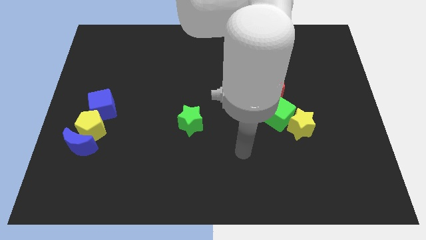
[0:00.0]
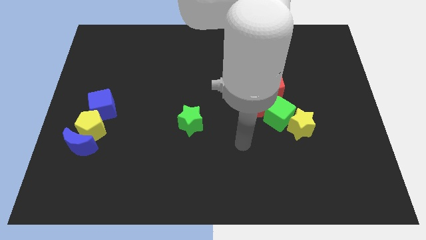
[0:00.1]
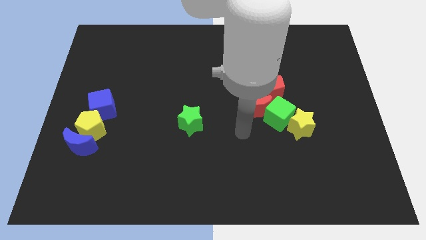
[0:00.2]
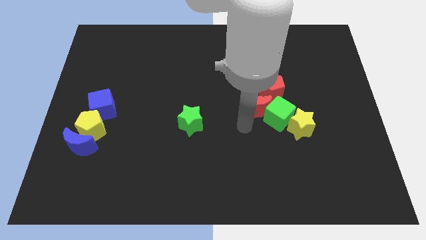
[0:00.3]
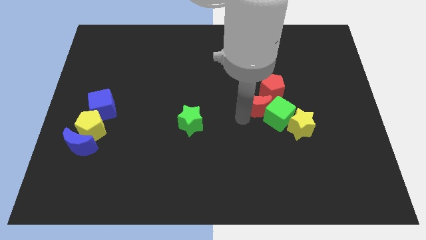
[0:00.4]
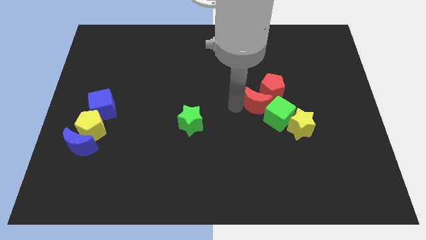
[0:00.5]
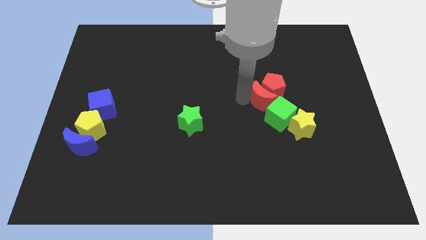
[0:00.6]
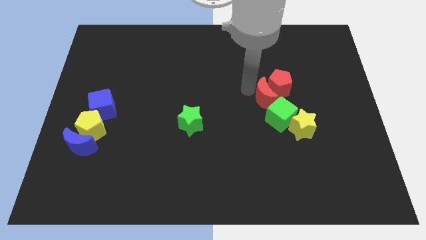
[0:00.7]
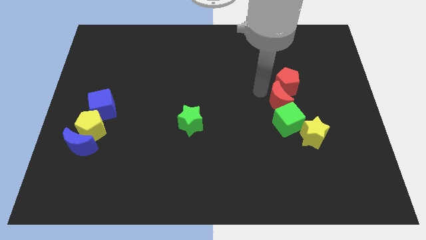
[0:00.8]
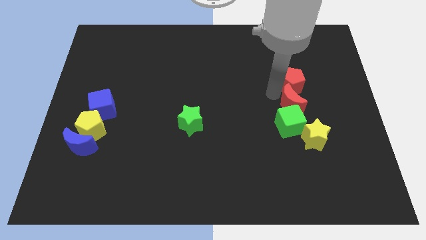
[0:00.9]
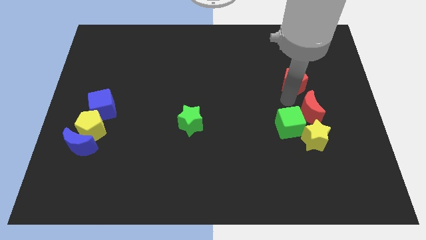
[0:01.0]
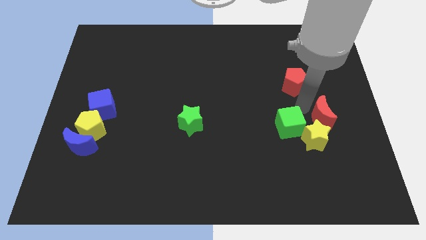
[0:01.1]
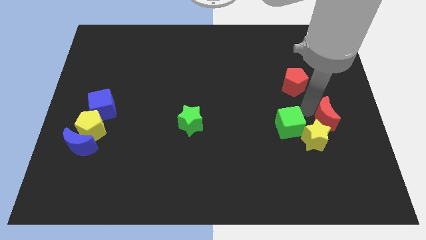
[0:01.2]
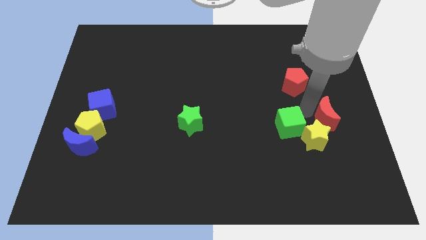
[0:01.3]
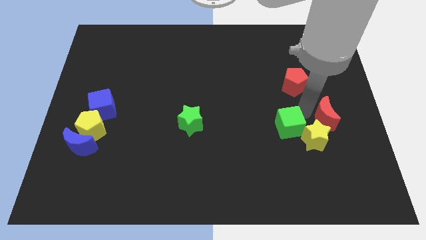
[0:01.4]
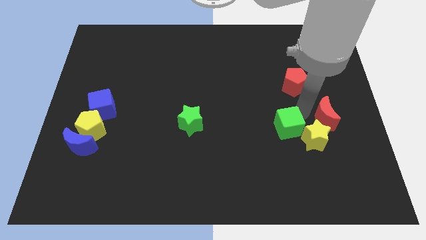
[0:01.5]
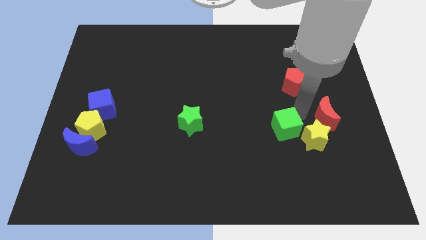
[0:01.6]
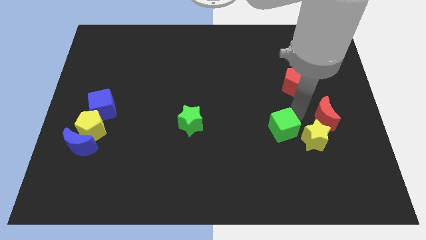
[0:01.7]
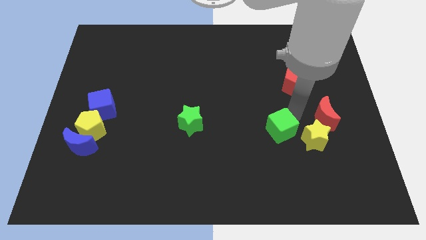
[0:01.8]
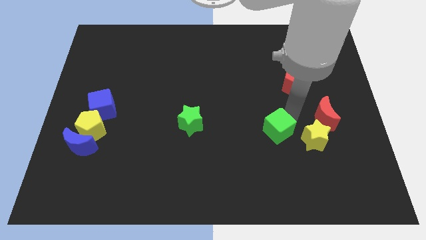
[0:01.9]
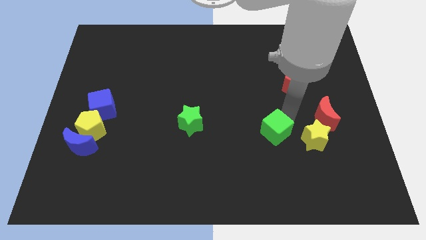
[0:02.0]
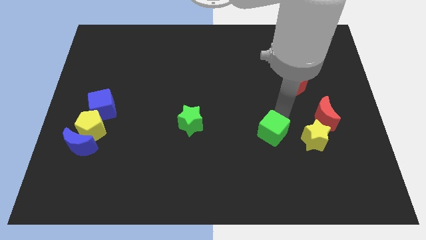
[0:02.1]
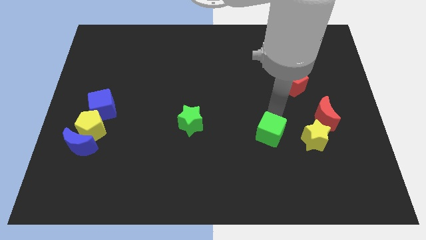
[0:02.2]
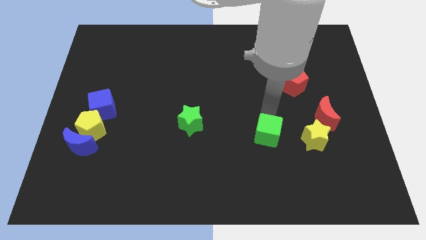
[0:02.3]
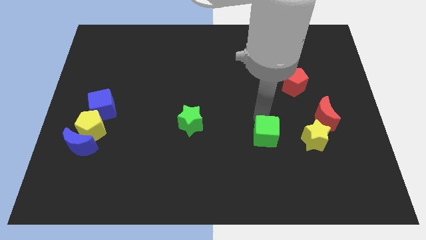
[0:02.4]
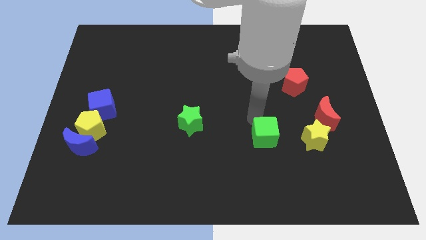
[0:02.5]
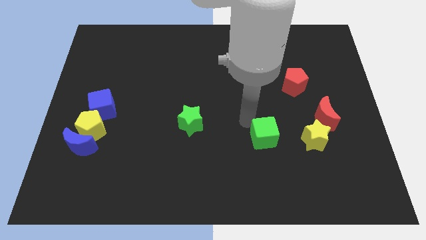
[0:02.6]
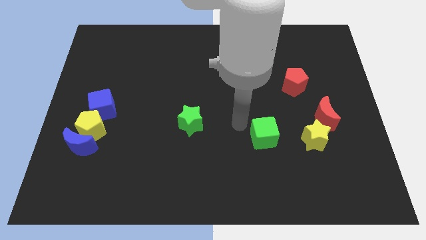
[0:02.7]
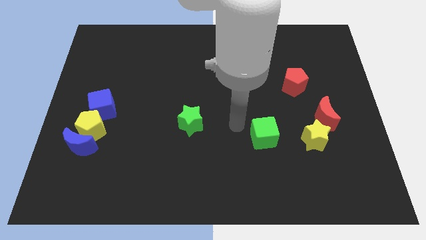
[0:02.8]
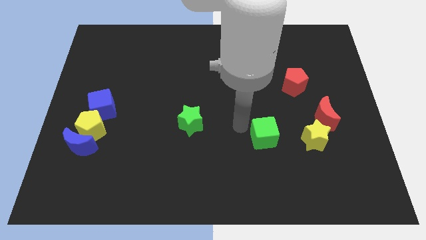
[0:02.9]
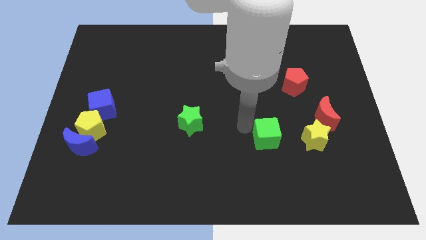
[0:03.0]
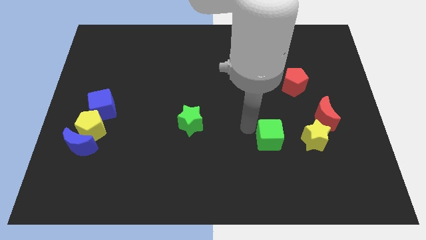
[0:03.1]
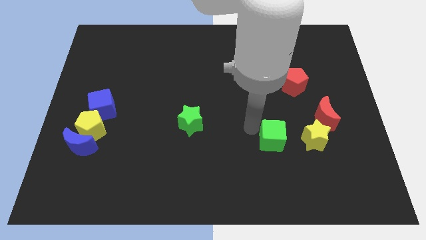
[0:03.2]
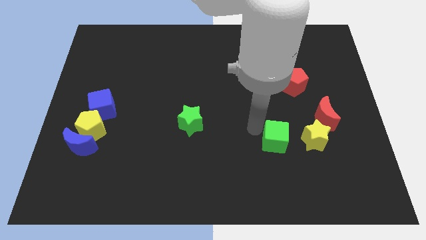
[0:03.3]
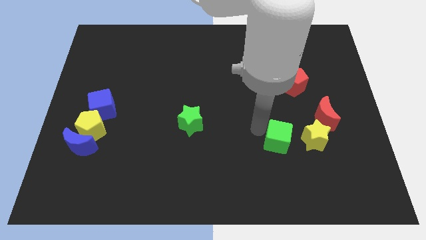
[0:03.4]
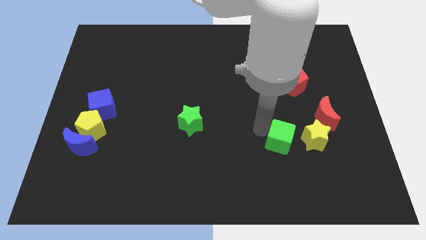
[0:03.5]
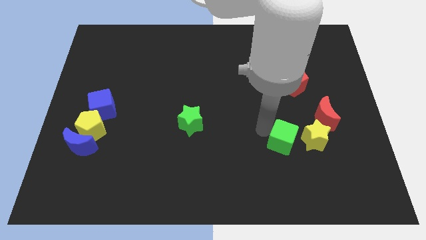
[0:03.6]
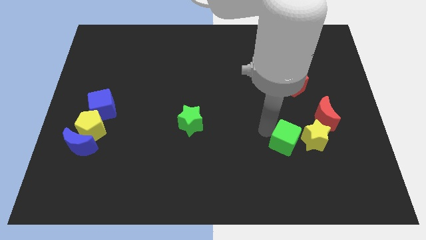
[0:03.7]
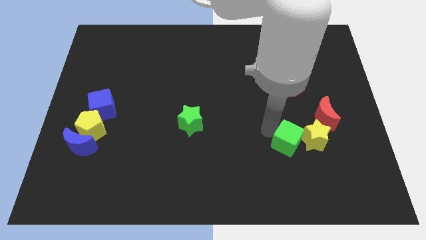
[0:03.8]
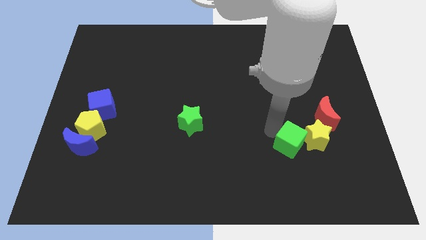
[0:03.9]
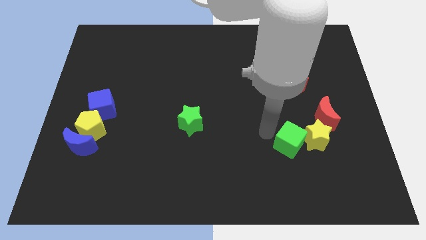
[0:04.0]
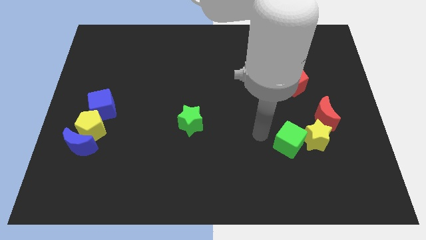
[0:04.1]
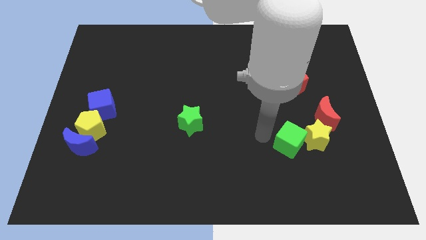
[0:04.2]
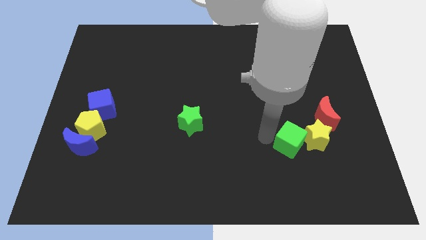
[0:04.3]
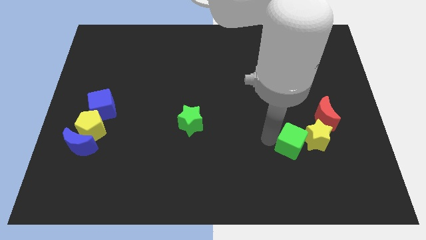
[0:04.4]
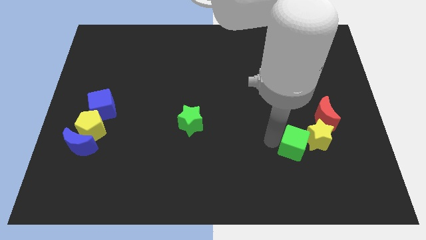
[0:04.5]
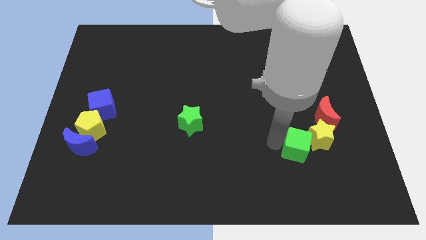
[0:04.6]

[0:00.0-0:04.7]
slightly push the green cube down and then to the right

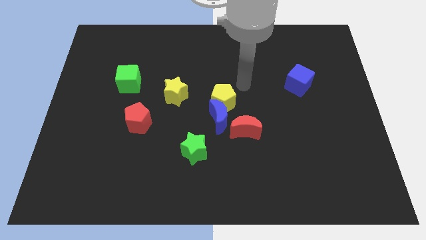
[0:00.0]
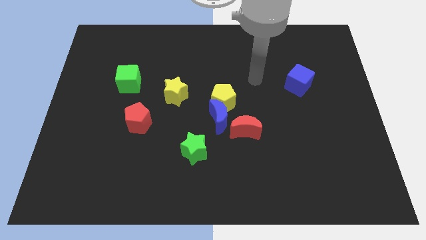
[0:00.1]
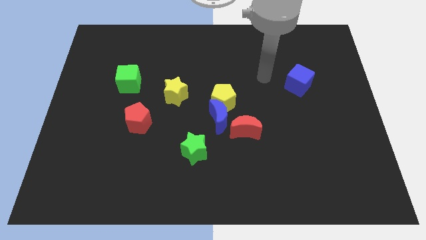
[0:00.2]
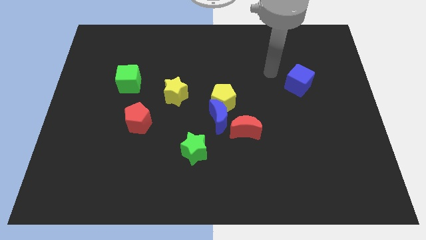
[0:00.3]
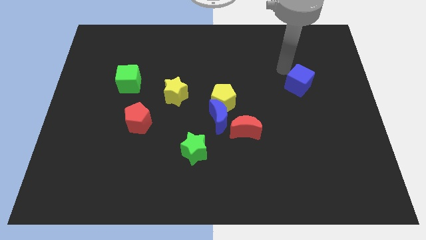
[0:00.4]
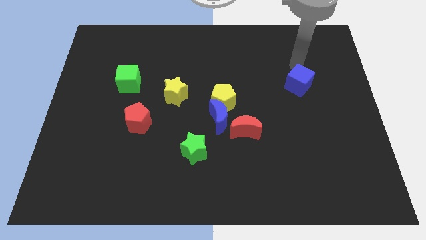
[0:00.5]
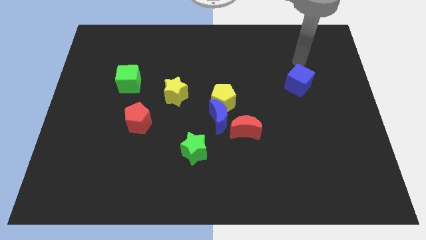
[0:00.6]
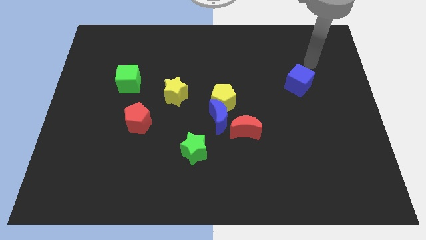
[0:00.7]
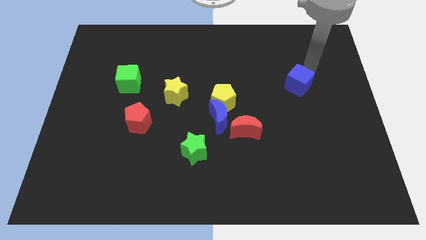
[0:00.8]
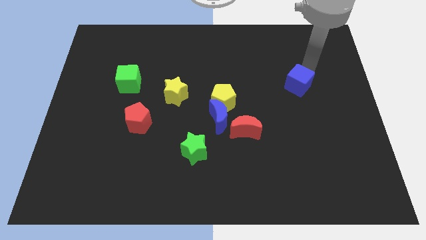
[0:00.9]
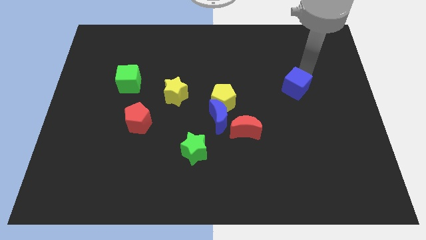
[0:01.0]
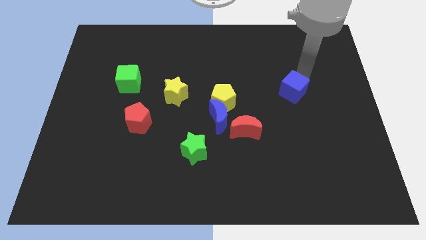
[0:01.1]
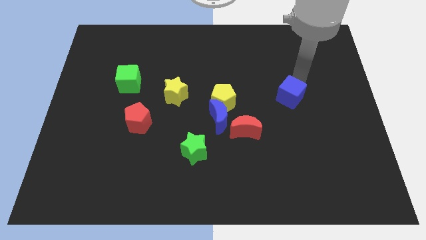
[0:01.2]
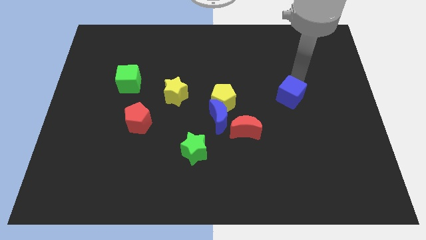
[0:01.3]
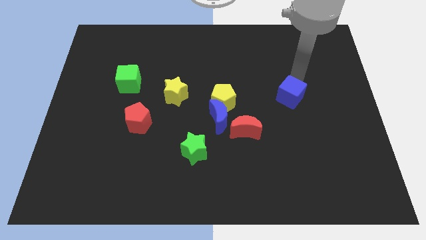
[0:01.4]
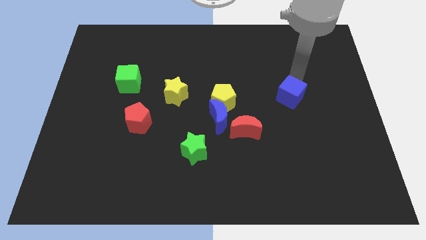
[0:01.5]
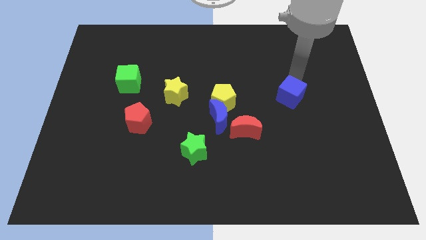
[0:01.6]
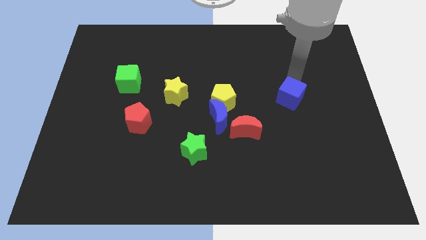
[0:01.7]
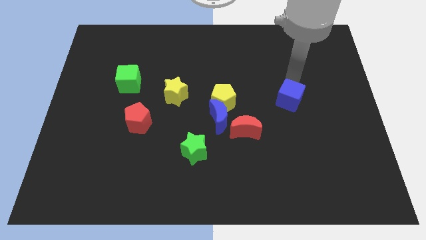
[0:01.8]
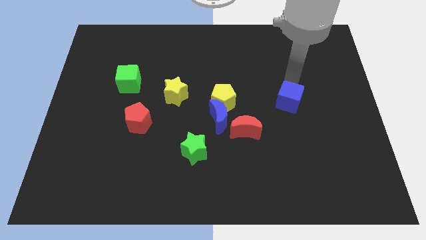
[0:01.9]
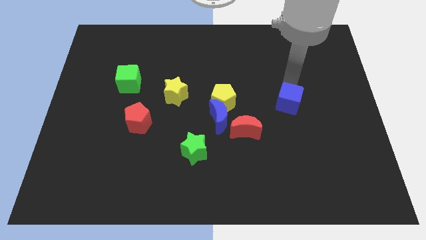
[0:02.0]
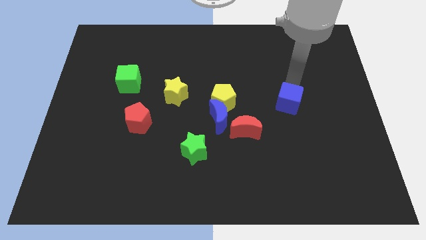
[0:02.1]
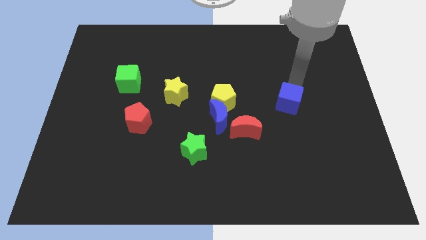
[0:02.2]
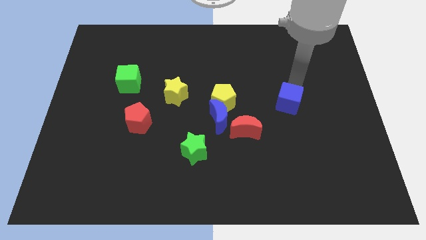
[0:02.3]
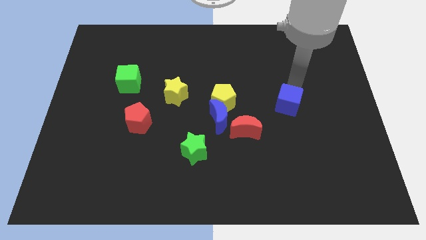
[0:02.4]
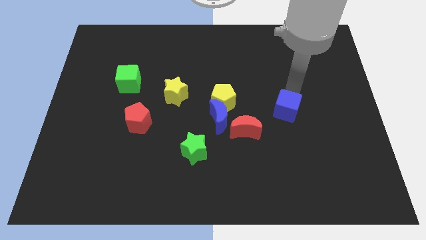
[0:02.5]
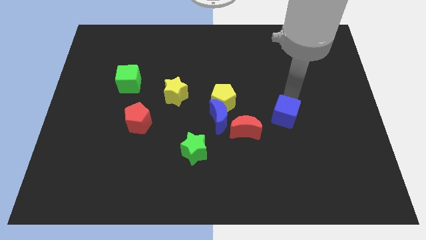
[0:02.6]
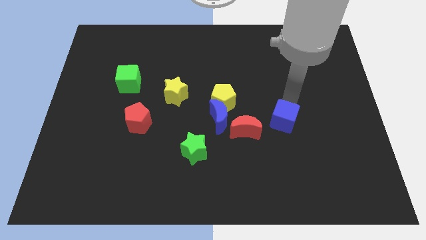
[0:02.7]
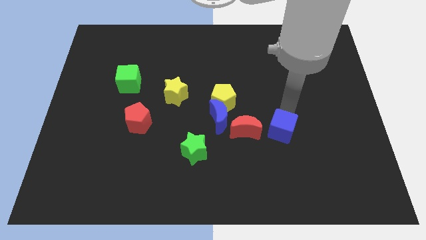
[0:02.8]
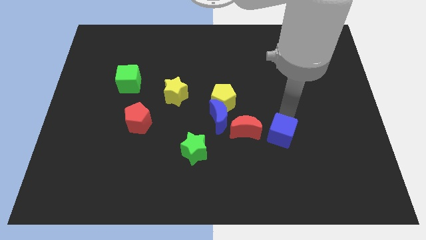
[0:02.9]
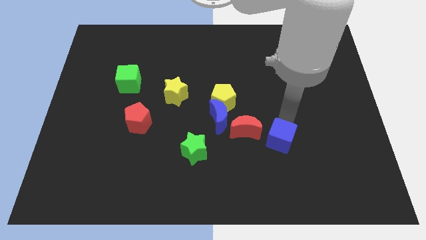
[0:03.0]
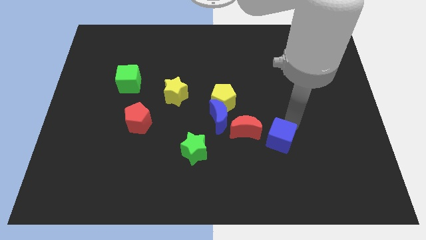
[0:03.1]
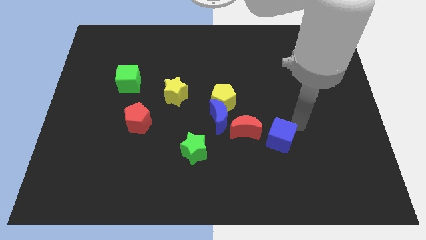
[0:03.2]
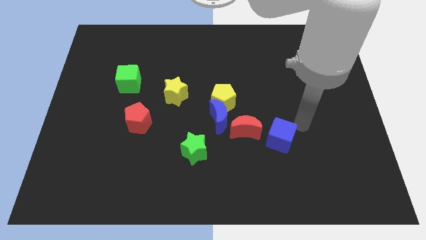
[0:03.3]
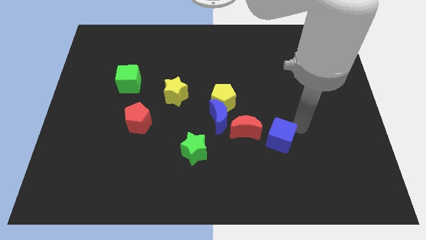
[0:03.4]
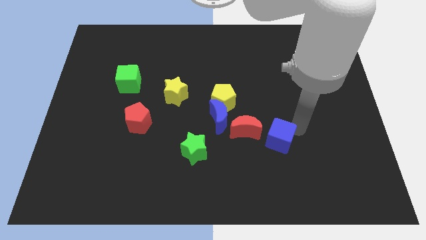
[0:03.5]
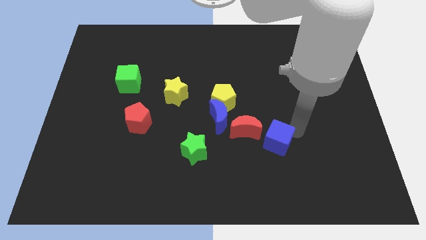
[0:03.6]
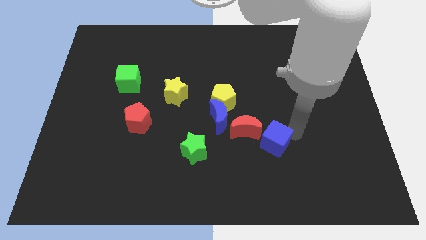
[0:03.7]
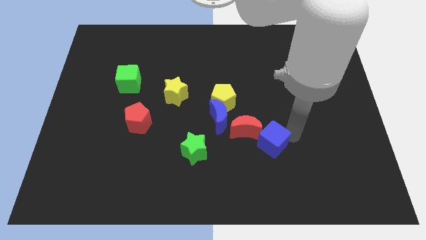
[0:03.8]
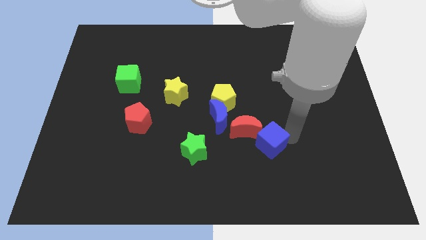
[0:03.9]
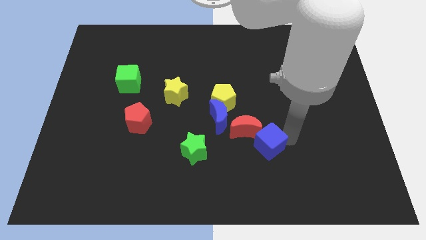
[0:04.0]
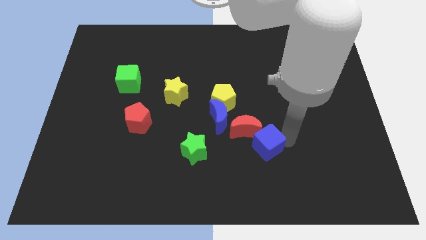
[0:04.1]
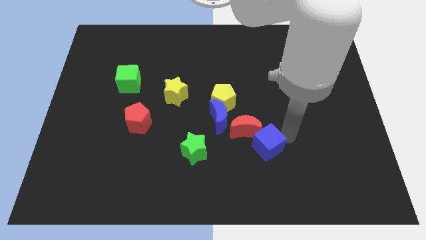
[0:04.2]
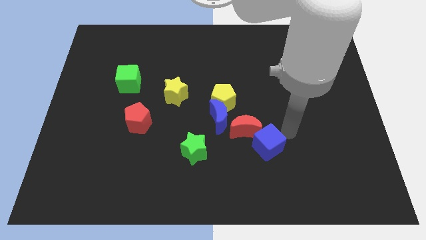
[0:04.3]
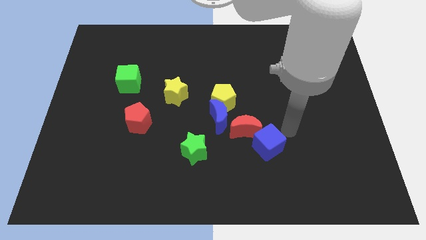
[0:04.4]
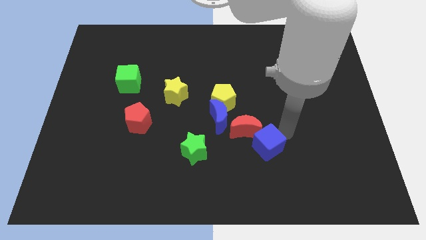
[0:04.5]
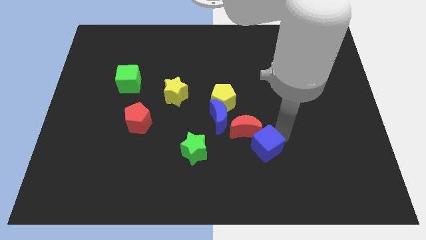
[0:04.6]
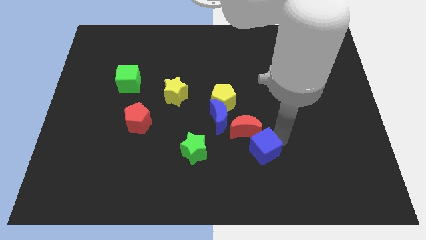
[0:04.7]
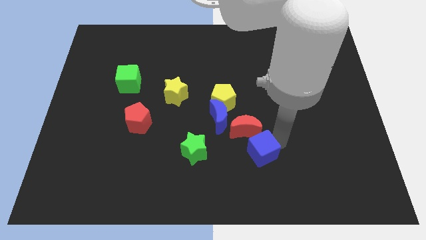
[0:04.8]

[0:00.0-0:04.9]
slide the blue cube diagonally down and to the left
